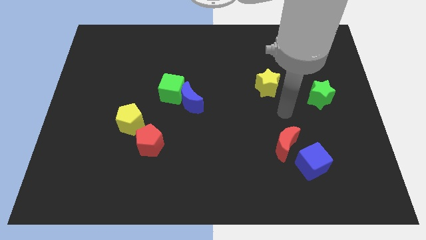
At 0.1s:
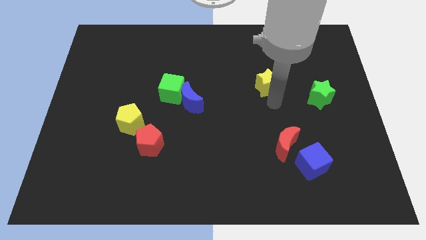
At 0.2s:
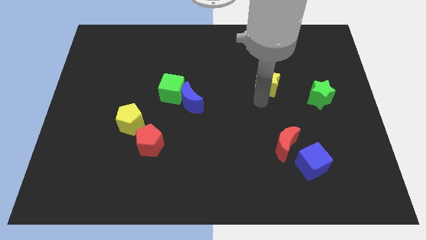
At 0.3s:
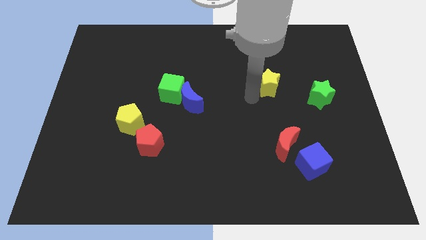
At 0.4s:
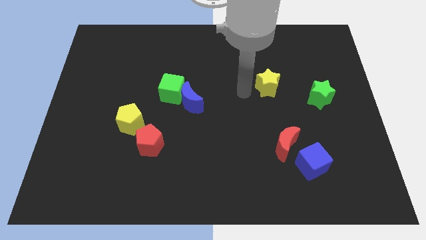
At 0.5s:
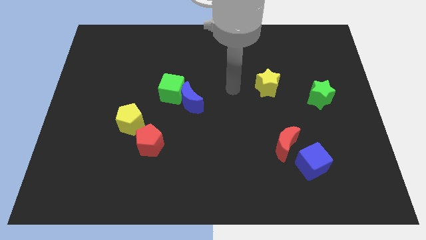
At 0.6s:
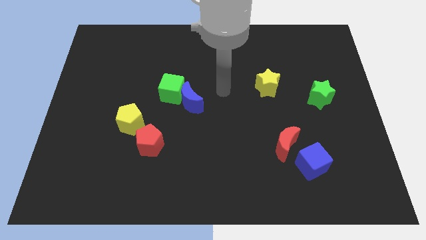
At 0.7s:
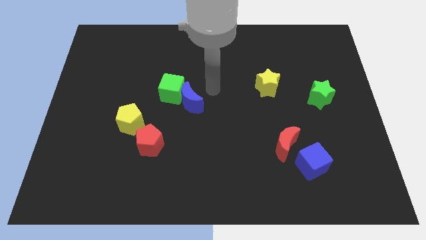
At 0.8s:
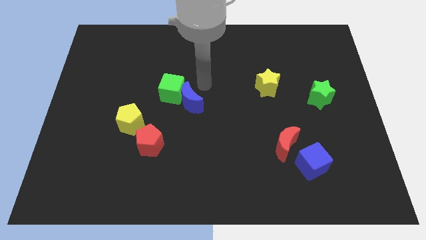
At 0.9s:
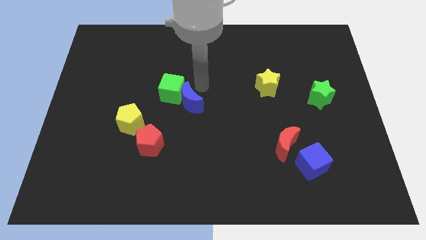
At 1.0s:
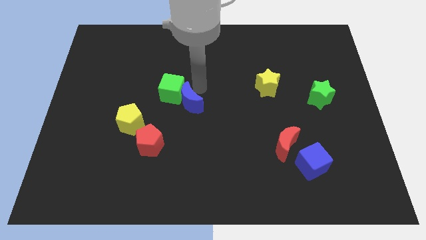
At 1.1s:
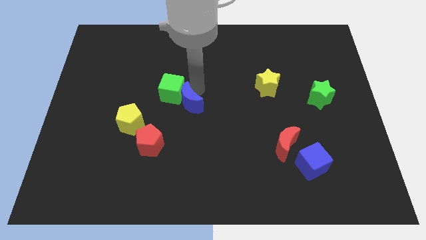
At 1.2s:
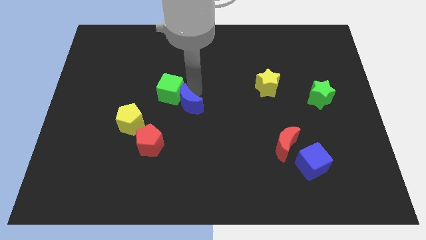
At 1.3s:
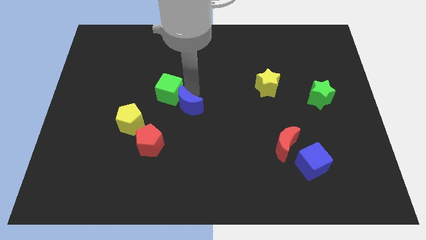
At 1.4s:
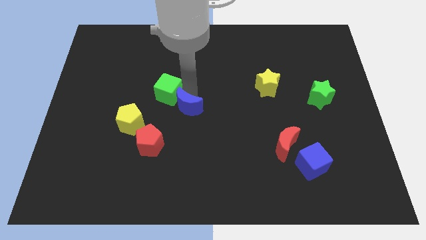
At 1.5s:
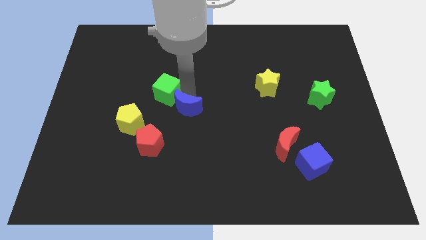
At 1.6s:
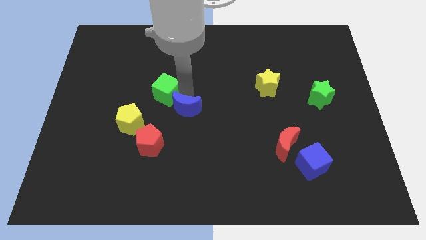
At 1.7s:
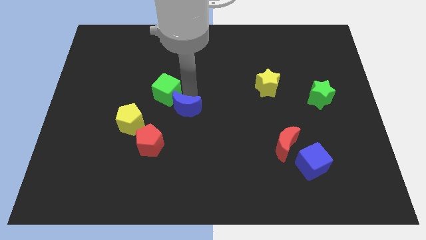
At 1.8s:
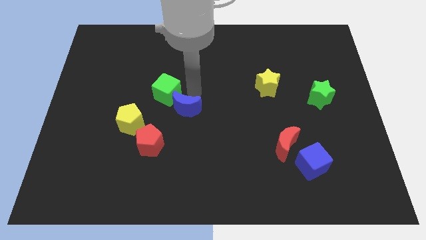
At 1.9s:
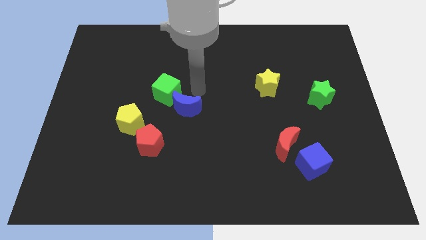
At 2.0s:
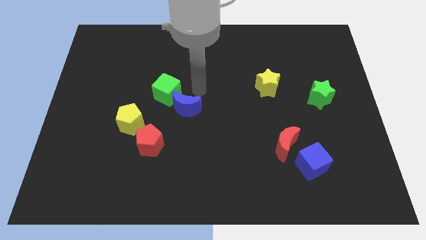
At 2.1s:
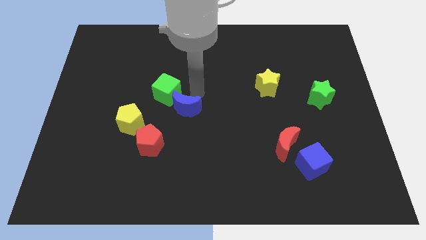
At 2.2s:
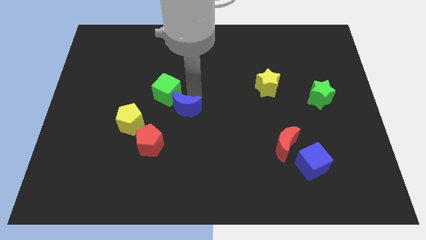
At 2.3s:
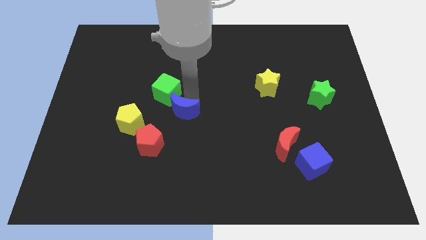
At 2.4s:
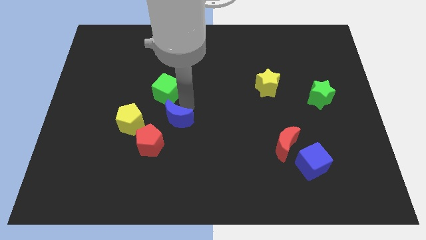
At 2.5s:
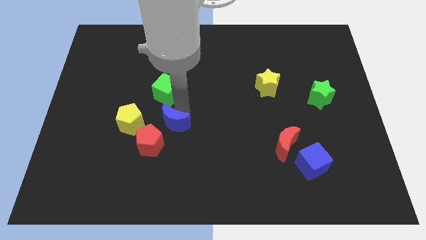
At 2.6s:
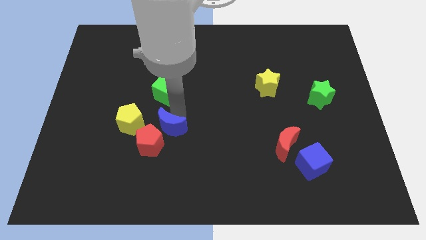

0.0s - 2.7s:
push the blue moon a little down and then to the left

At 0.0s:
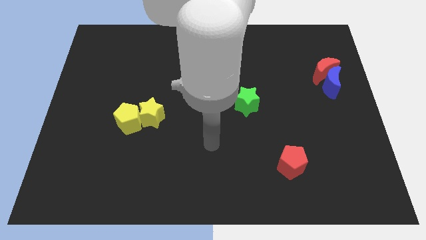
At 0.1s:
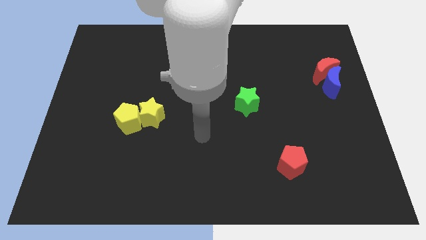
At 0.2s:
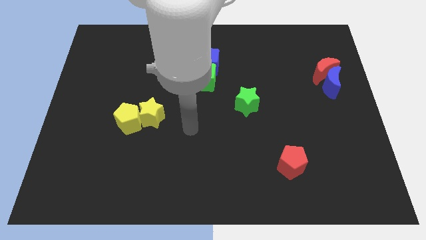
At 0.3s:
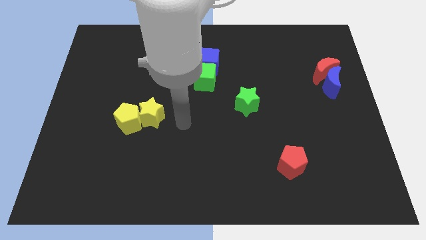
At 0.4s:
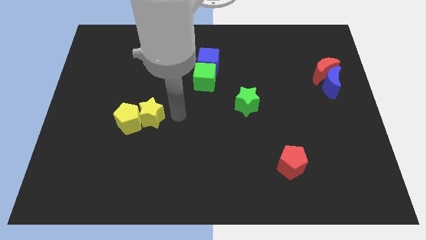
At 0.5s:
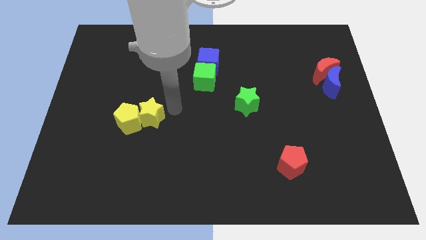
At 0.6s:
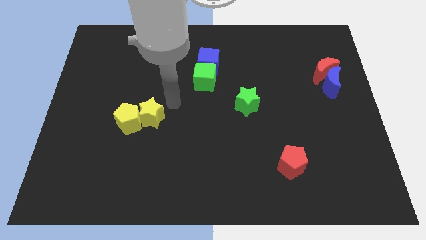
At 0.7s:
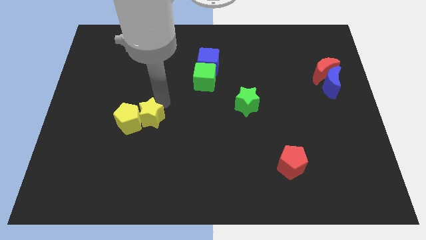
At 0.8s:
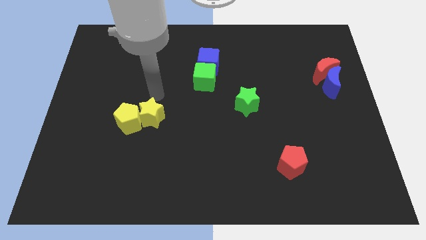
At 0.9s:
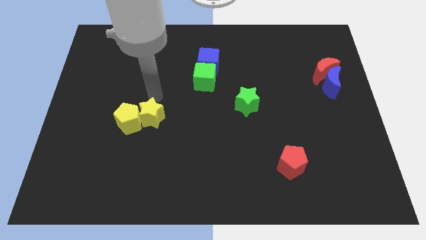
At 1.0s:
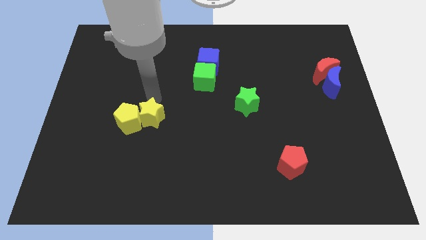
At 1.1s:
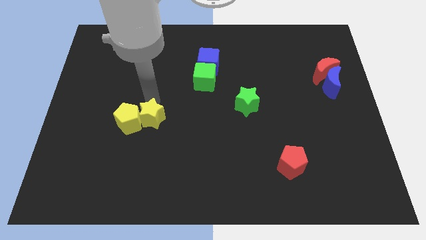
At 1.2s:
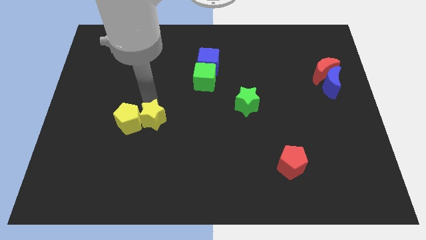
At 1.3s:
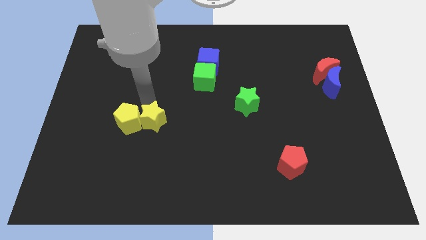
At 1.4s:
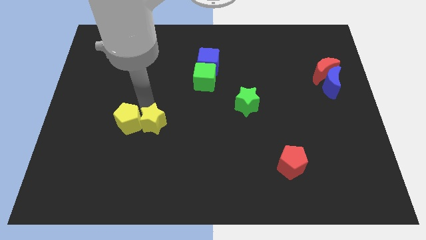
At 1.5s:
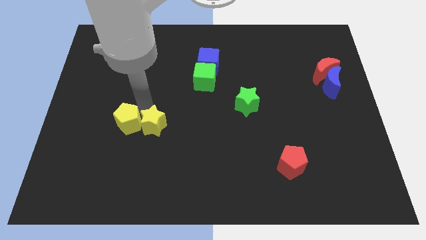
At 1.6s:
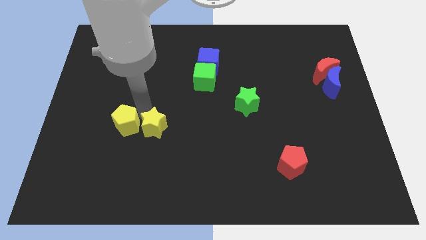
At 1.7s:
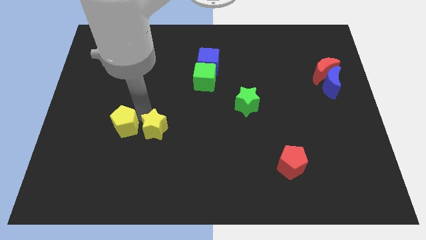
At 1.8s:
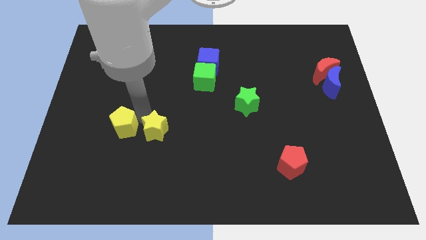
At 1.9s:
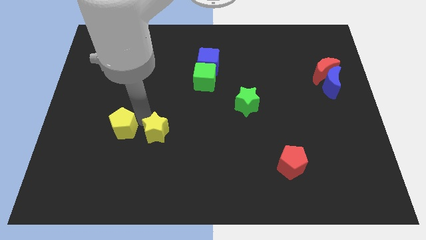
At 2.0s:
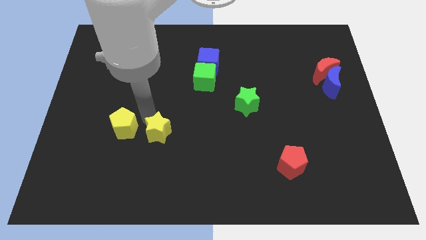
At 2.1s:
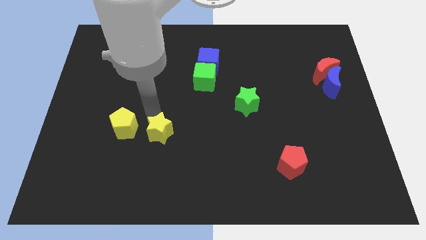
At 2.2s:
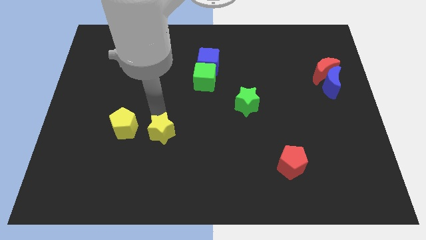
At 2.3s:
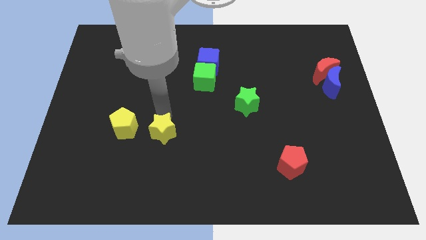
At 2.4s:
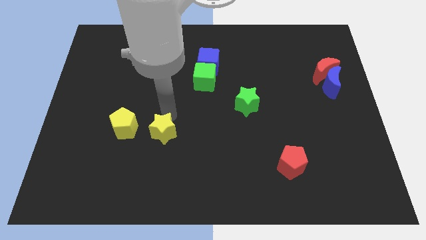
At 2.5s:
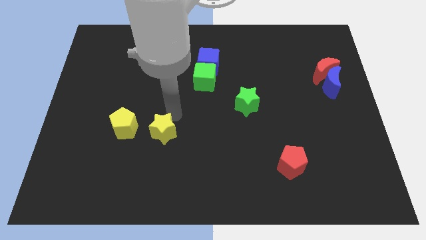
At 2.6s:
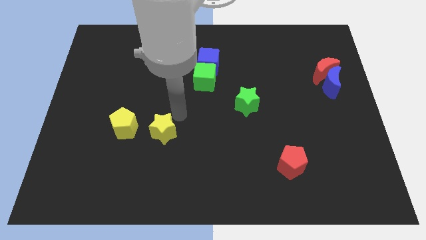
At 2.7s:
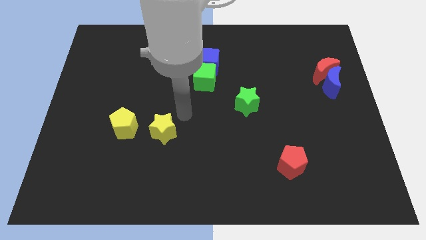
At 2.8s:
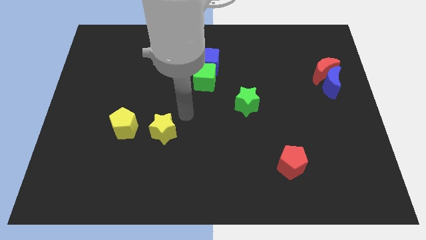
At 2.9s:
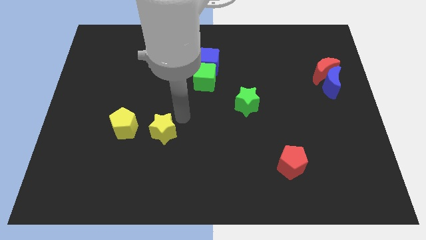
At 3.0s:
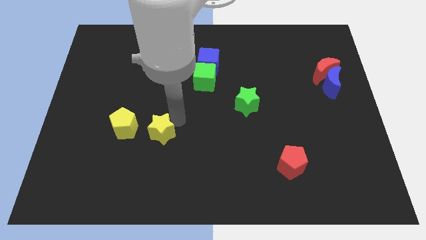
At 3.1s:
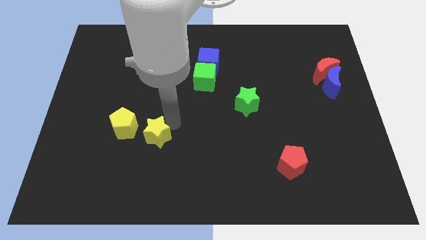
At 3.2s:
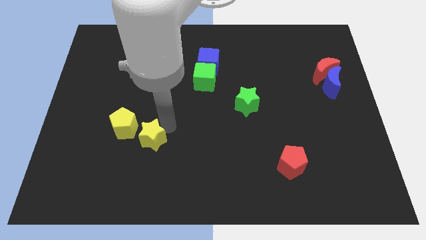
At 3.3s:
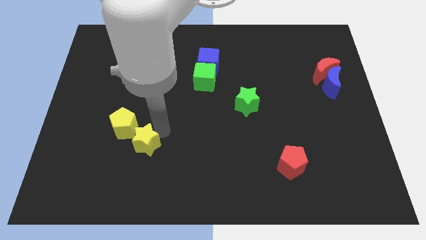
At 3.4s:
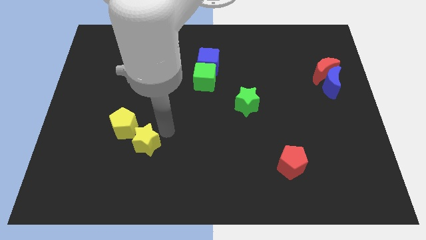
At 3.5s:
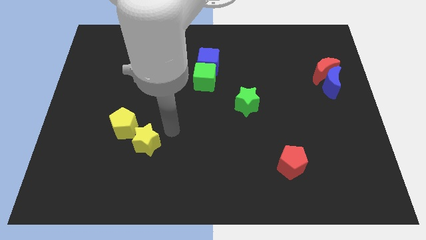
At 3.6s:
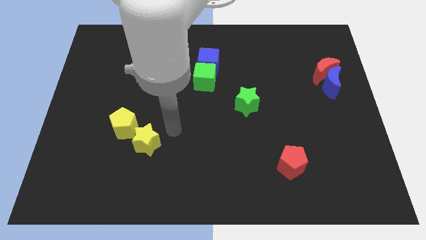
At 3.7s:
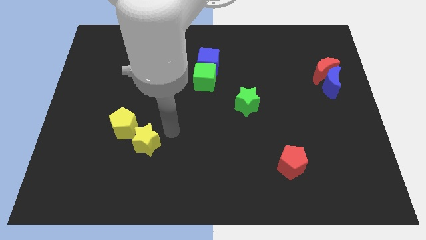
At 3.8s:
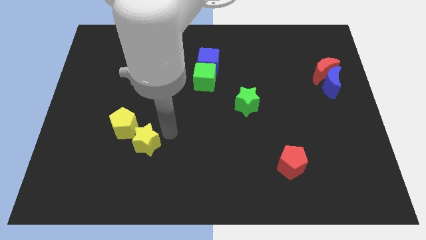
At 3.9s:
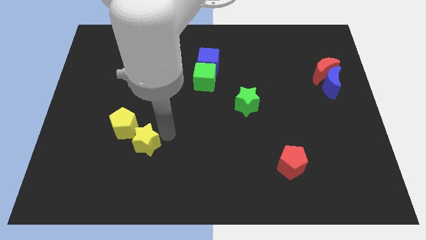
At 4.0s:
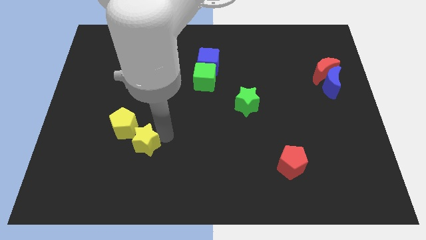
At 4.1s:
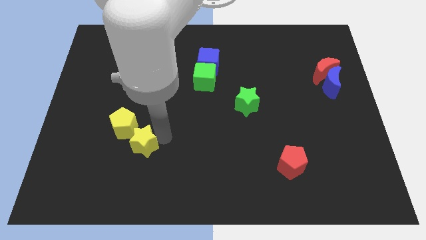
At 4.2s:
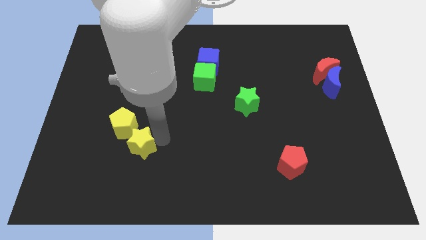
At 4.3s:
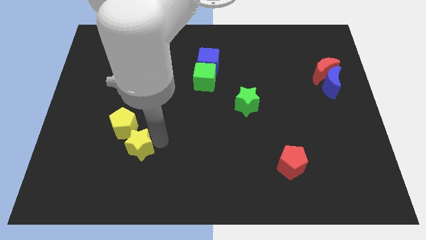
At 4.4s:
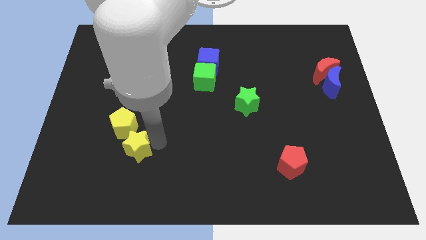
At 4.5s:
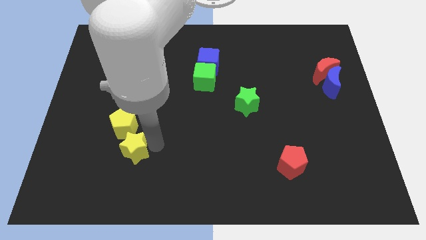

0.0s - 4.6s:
push the yellow star diagonally downwards and to the left a little

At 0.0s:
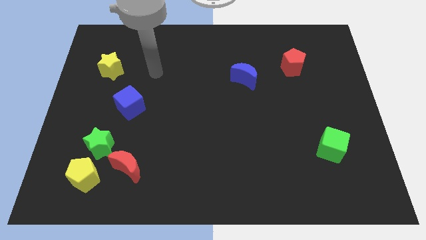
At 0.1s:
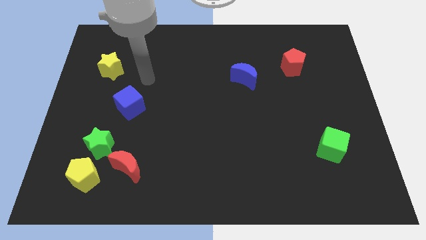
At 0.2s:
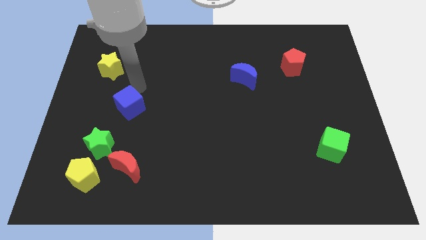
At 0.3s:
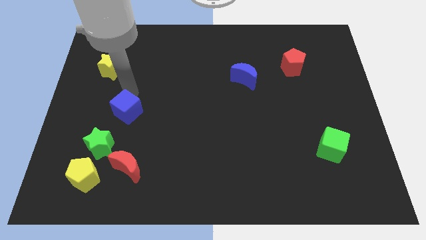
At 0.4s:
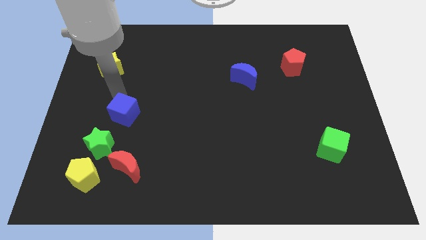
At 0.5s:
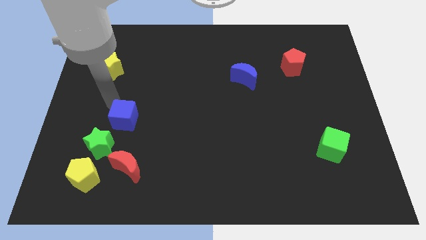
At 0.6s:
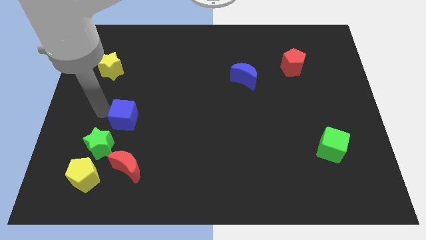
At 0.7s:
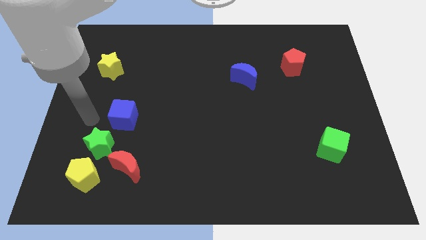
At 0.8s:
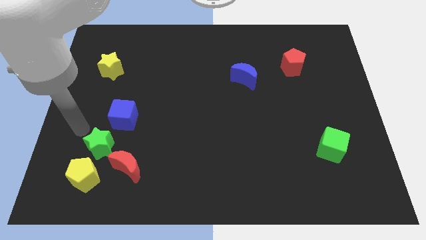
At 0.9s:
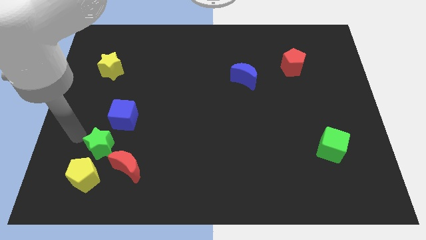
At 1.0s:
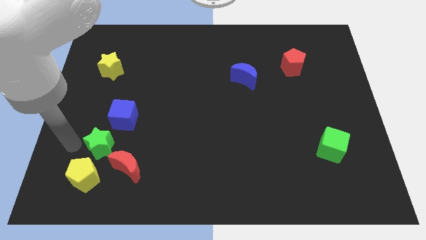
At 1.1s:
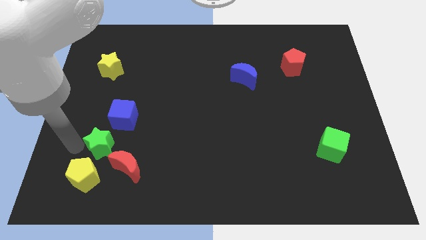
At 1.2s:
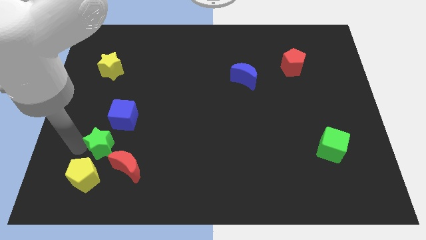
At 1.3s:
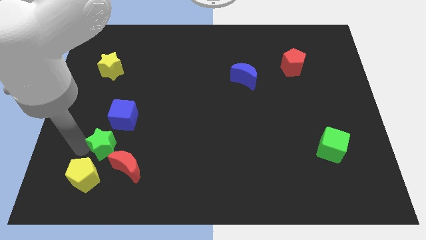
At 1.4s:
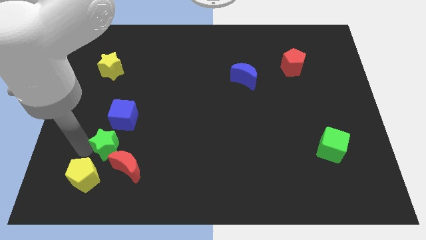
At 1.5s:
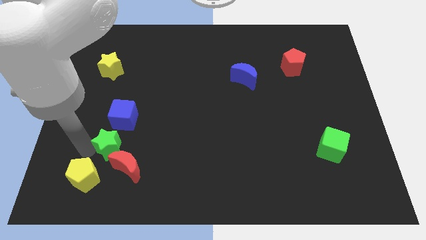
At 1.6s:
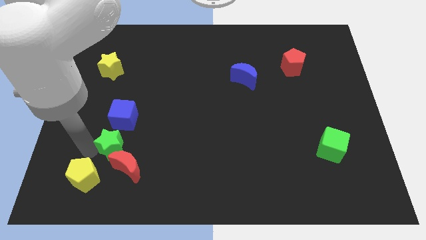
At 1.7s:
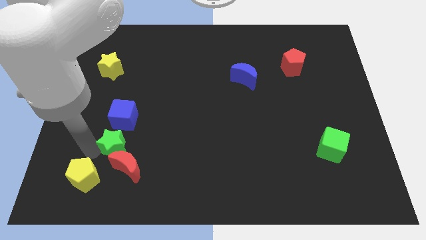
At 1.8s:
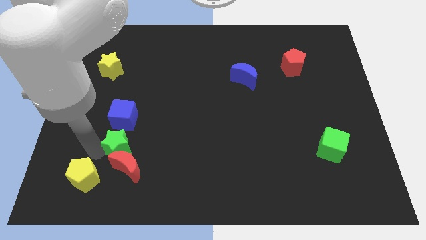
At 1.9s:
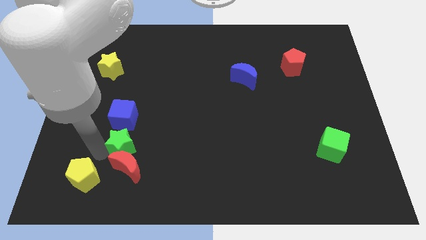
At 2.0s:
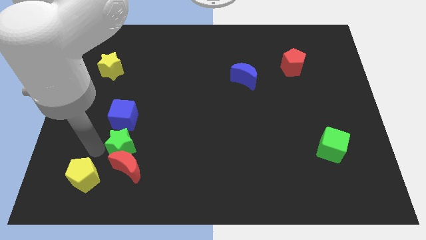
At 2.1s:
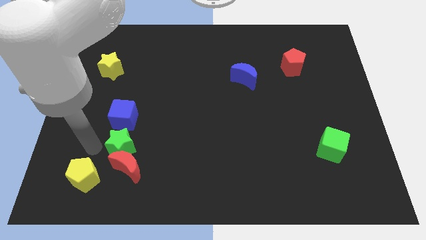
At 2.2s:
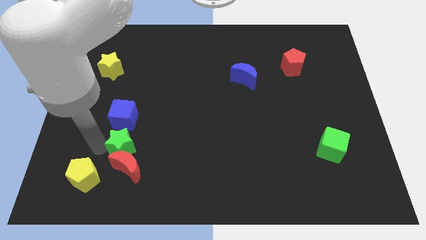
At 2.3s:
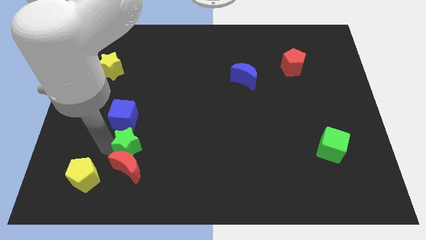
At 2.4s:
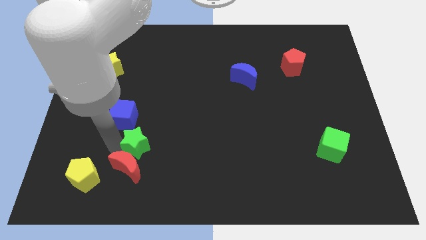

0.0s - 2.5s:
slide the green star a little bit to the right
